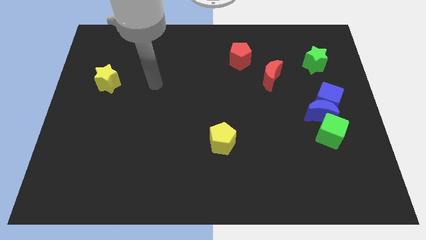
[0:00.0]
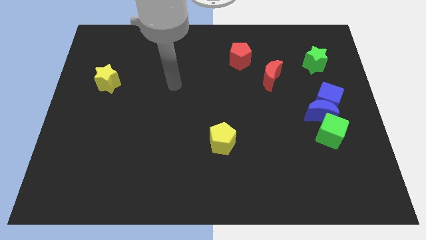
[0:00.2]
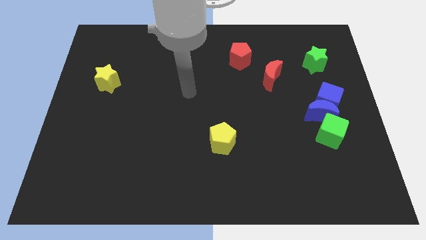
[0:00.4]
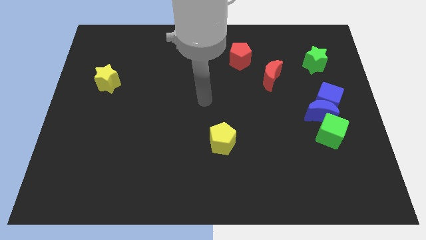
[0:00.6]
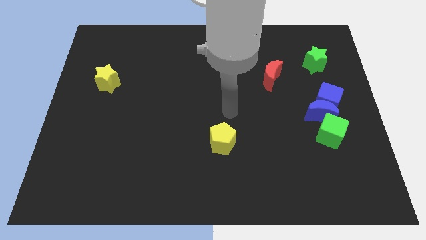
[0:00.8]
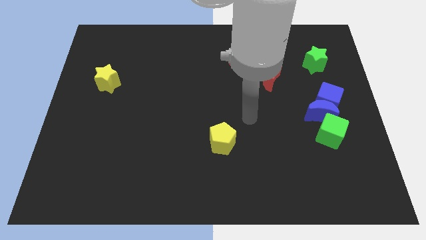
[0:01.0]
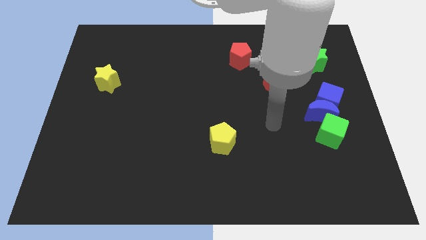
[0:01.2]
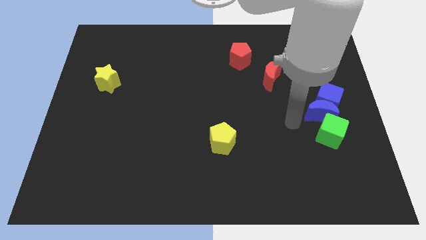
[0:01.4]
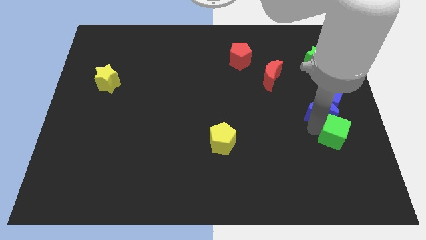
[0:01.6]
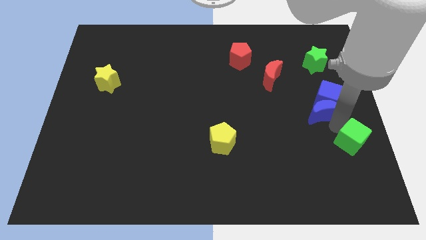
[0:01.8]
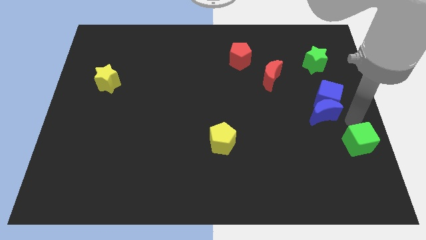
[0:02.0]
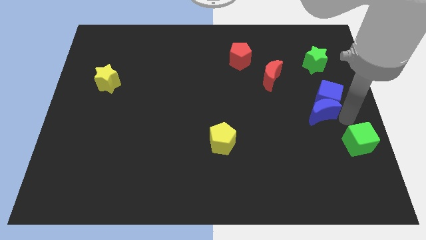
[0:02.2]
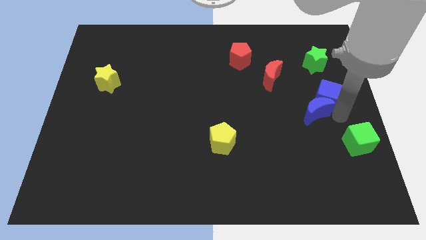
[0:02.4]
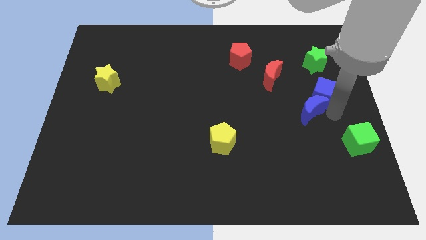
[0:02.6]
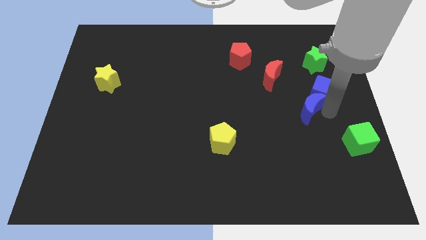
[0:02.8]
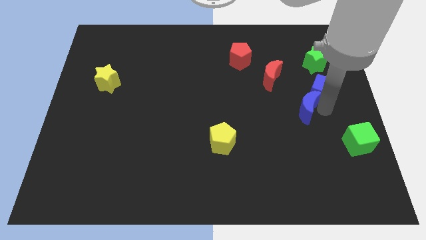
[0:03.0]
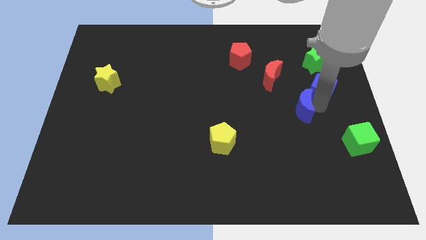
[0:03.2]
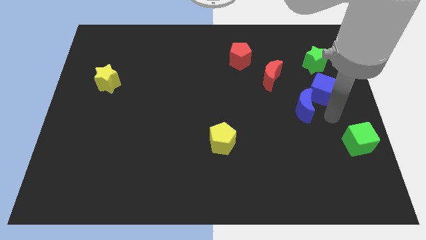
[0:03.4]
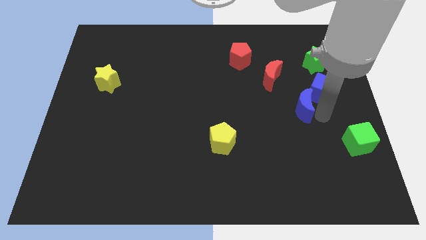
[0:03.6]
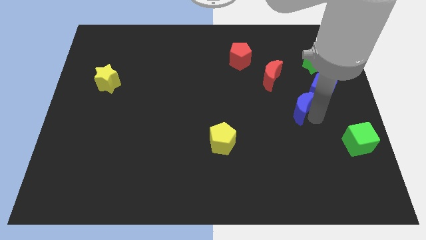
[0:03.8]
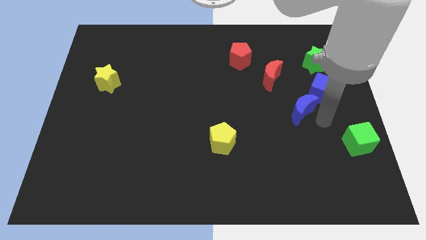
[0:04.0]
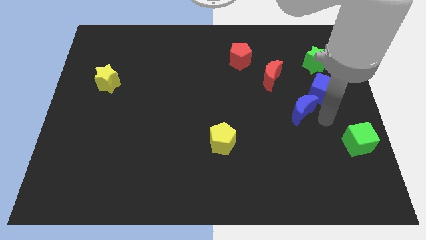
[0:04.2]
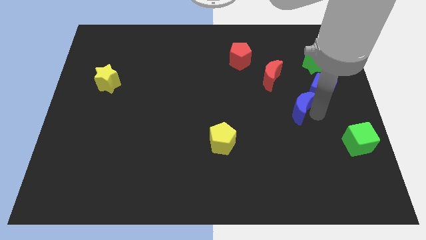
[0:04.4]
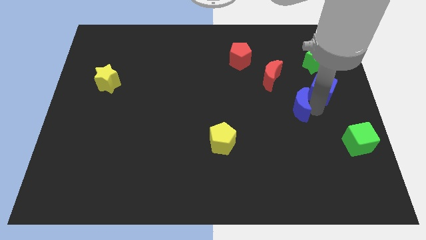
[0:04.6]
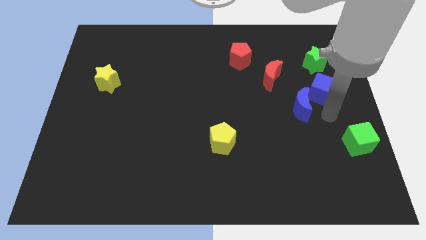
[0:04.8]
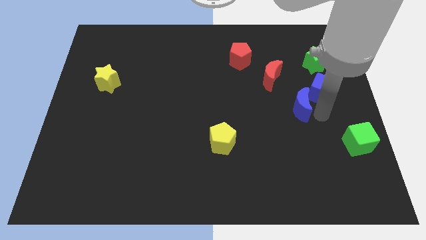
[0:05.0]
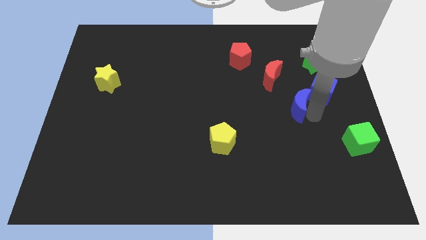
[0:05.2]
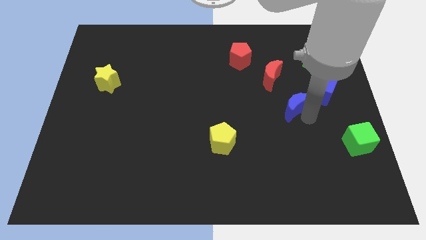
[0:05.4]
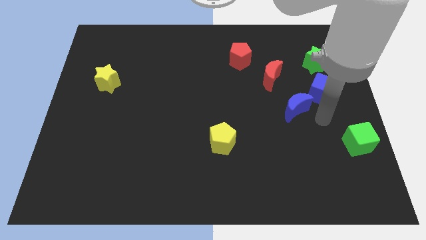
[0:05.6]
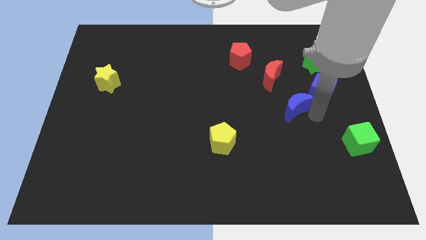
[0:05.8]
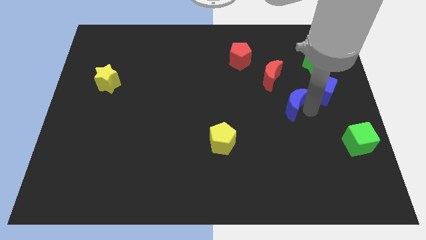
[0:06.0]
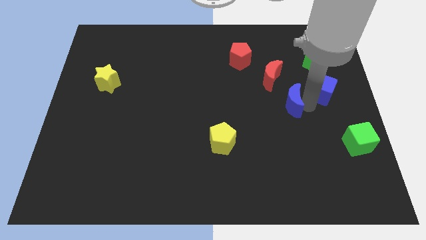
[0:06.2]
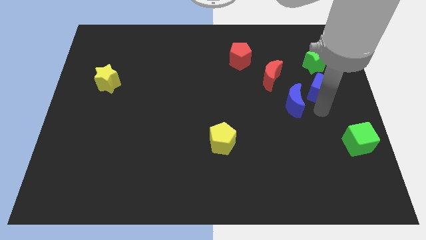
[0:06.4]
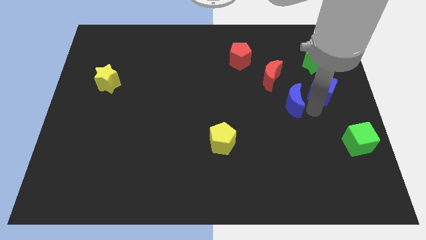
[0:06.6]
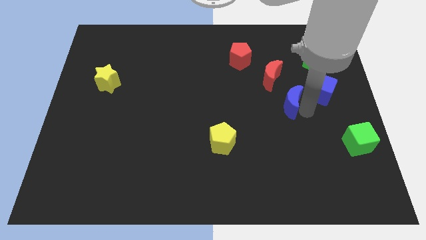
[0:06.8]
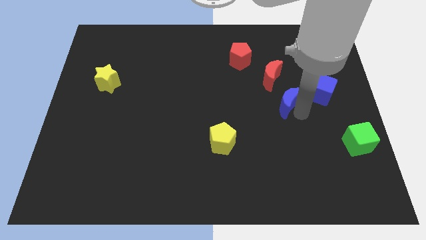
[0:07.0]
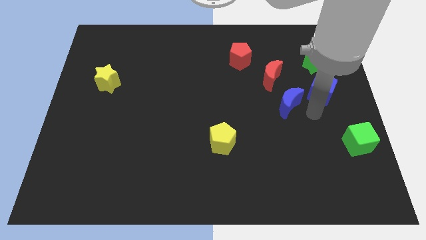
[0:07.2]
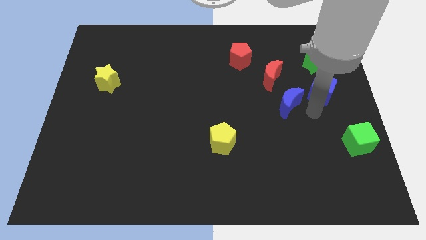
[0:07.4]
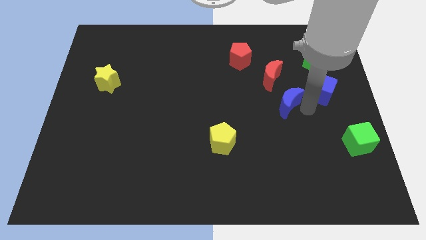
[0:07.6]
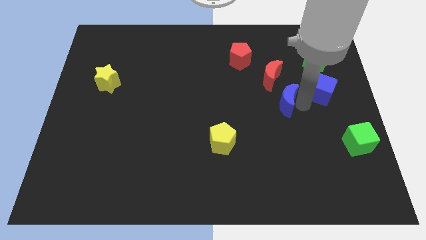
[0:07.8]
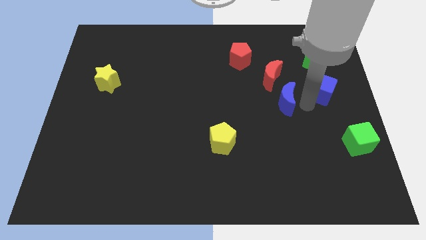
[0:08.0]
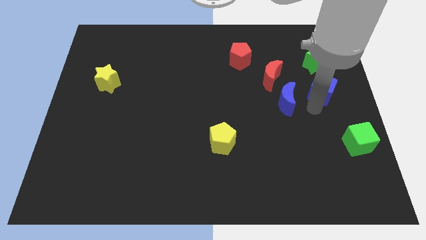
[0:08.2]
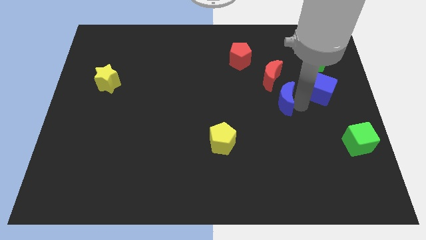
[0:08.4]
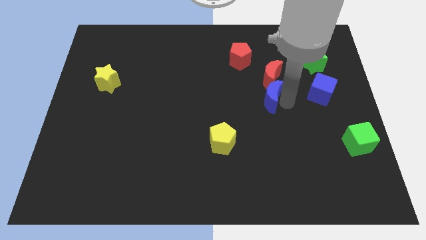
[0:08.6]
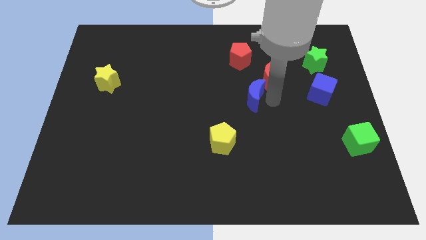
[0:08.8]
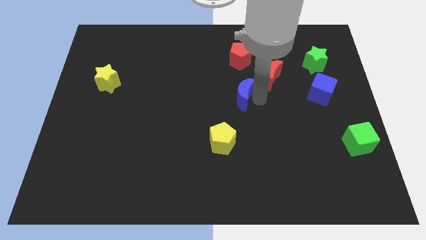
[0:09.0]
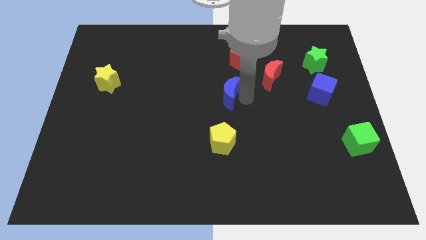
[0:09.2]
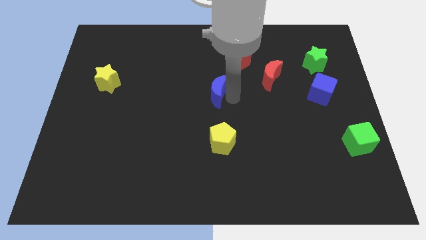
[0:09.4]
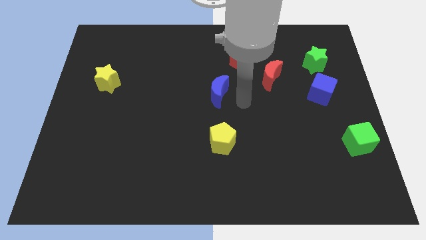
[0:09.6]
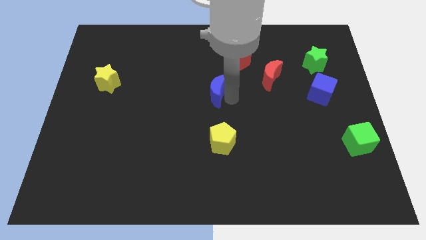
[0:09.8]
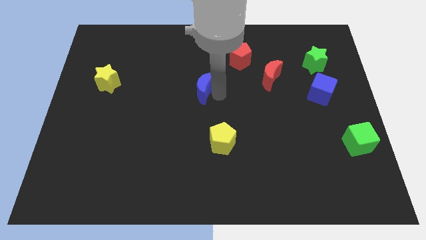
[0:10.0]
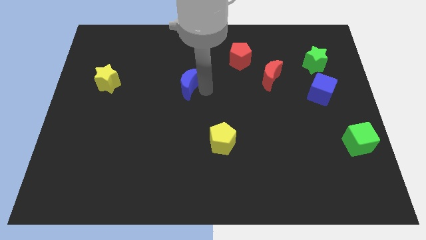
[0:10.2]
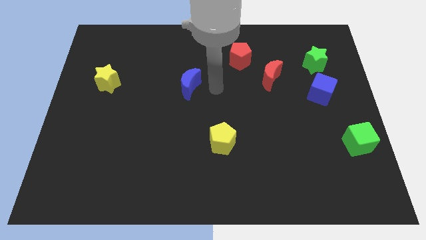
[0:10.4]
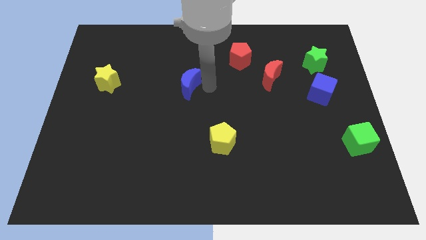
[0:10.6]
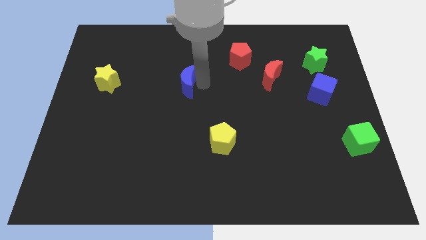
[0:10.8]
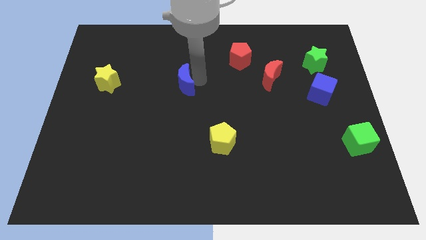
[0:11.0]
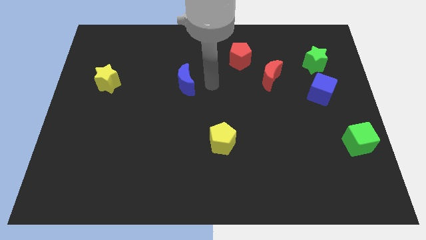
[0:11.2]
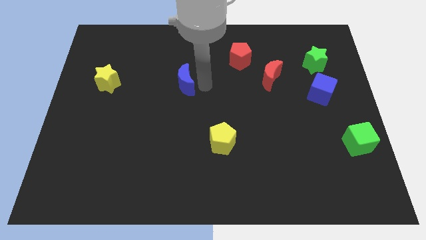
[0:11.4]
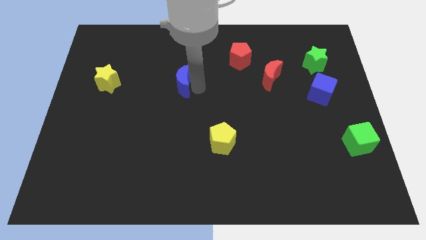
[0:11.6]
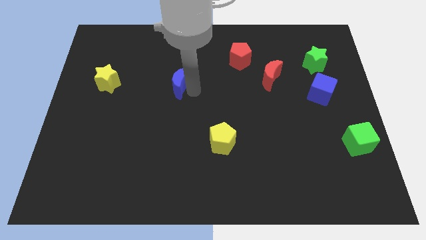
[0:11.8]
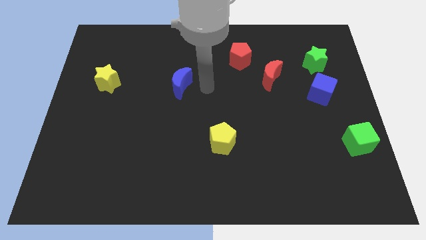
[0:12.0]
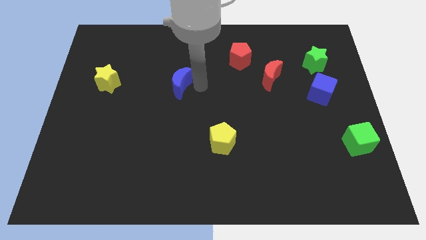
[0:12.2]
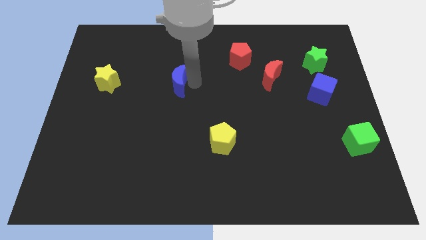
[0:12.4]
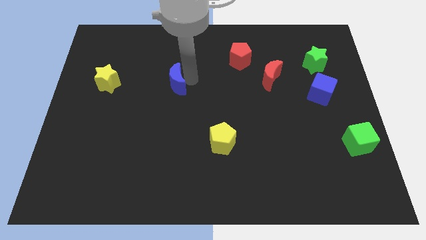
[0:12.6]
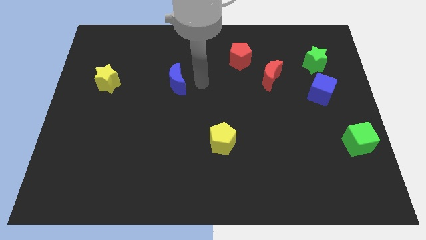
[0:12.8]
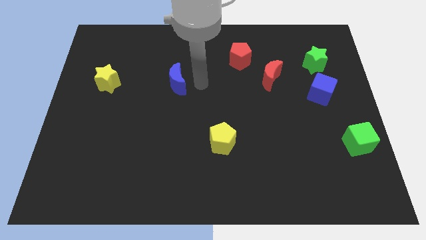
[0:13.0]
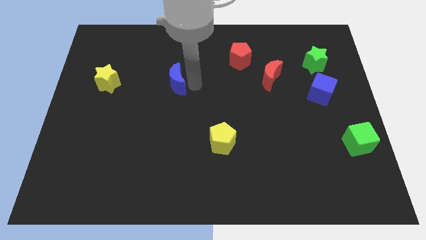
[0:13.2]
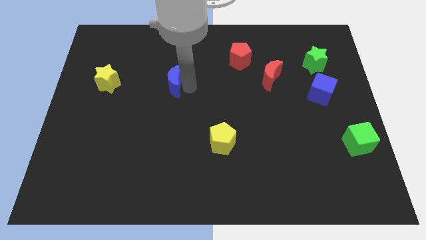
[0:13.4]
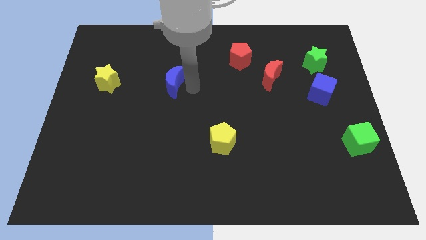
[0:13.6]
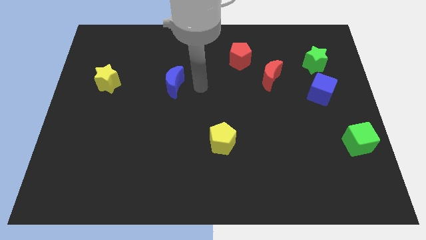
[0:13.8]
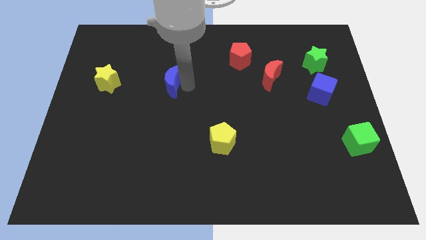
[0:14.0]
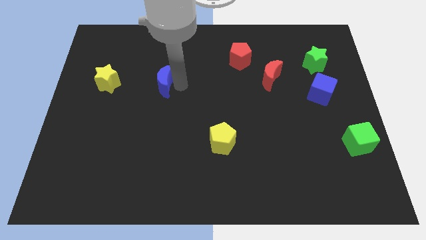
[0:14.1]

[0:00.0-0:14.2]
push the blue moon to the right of the yellow star
